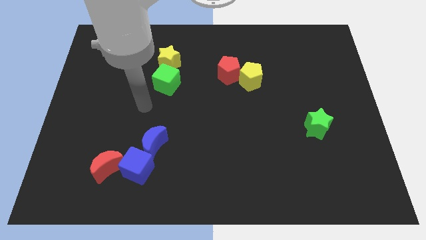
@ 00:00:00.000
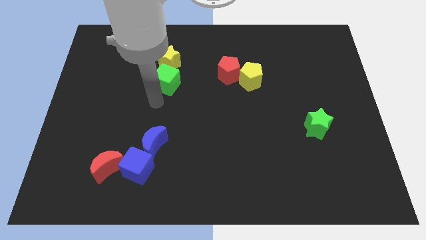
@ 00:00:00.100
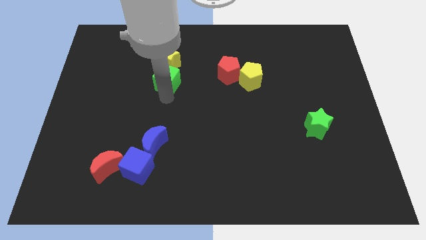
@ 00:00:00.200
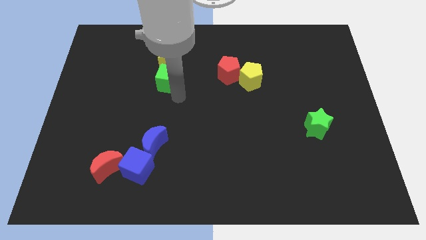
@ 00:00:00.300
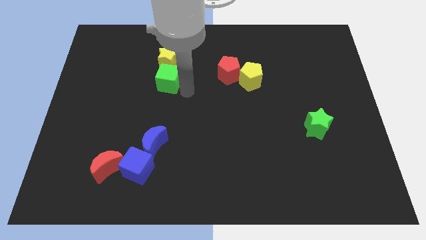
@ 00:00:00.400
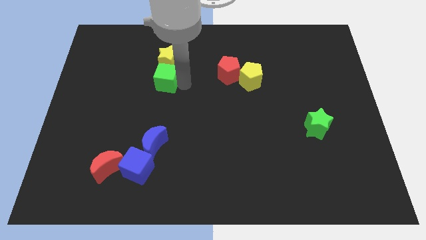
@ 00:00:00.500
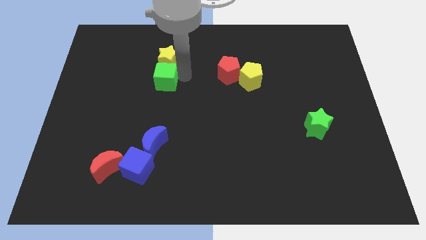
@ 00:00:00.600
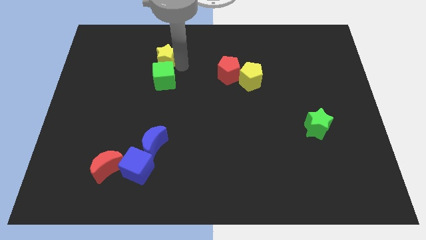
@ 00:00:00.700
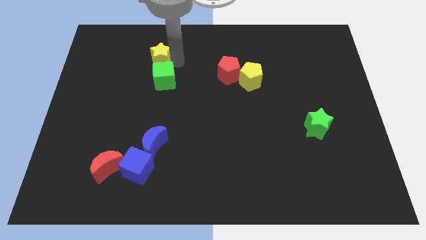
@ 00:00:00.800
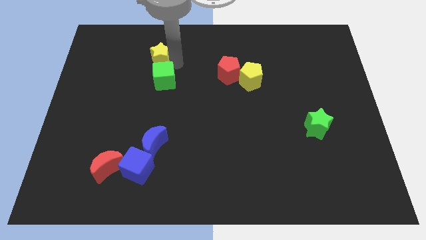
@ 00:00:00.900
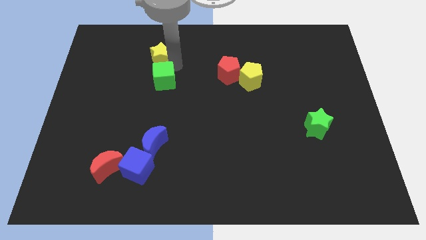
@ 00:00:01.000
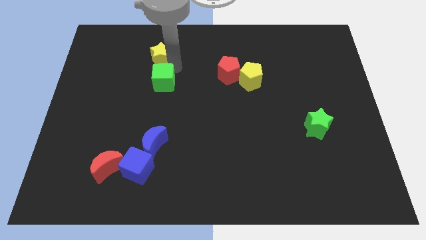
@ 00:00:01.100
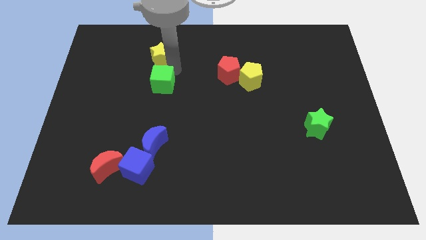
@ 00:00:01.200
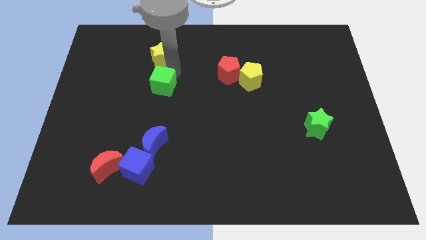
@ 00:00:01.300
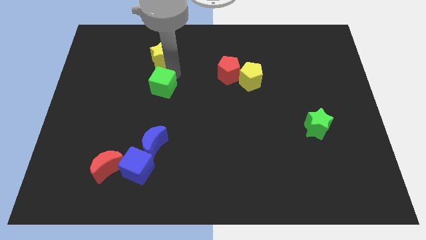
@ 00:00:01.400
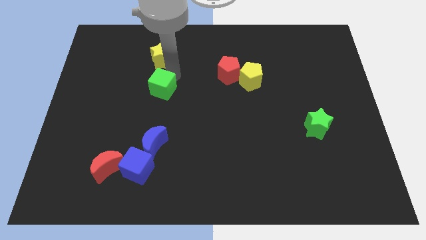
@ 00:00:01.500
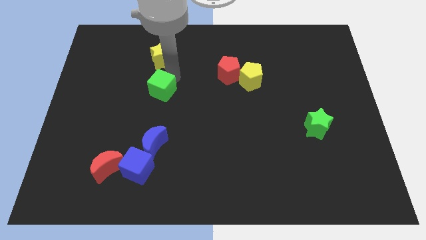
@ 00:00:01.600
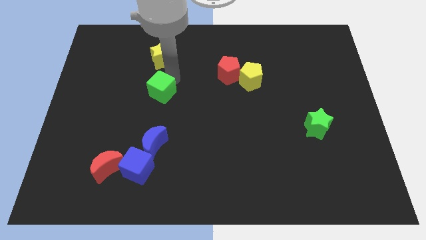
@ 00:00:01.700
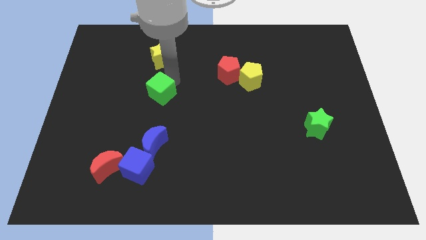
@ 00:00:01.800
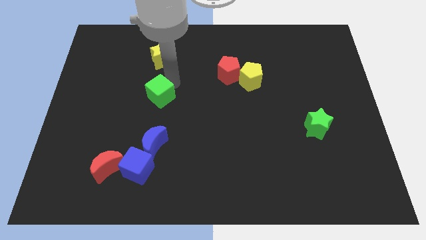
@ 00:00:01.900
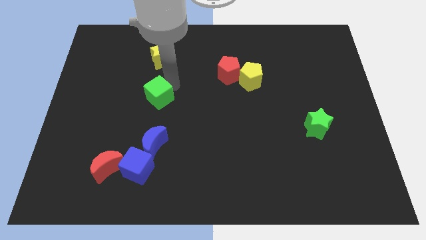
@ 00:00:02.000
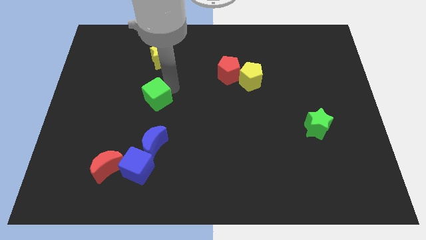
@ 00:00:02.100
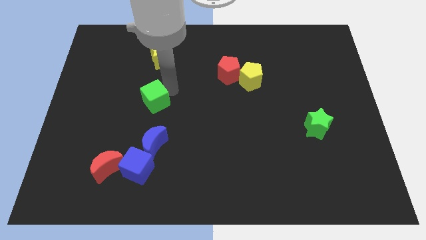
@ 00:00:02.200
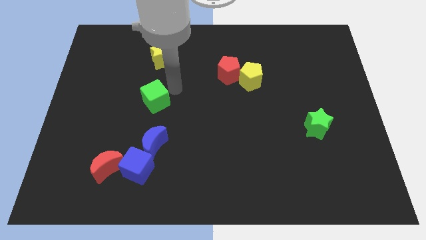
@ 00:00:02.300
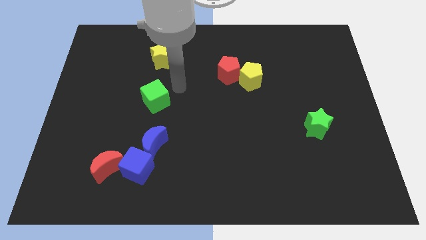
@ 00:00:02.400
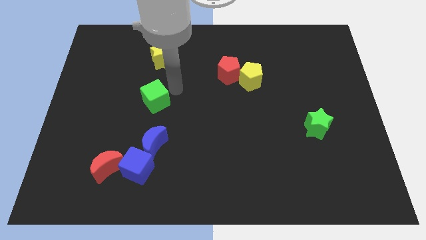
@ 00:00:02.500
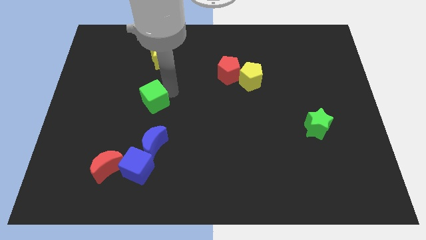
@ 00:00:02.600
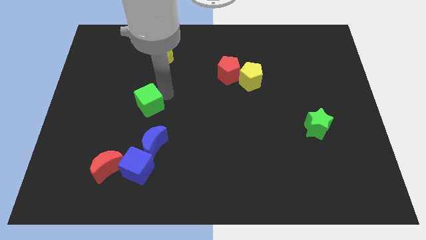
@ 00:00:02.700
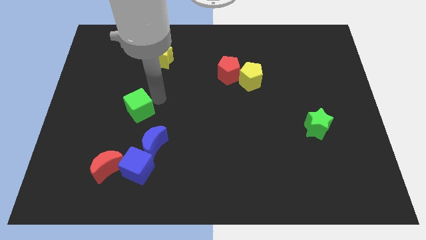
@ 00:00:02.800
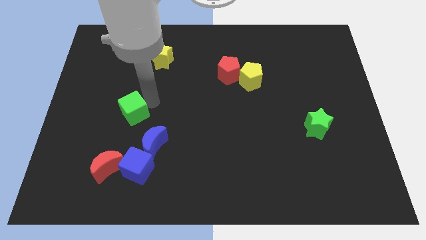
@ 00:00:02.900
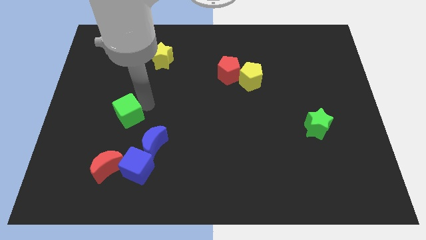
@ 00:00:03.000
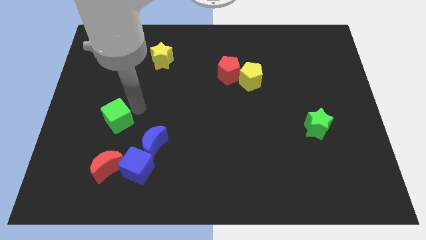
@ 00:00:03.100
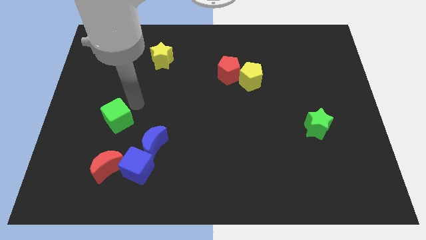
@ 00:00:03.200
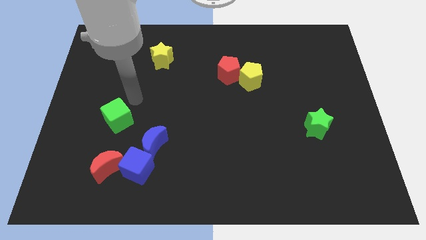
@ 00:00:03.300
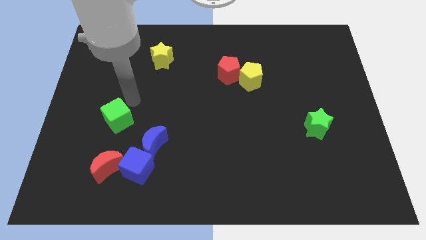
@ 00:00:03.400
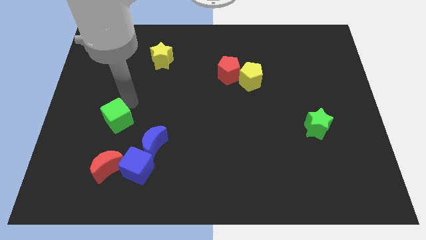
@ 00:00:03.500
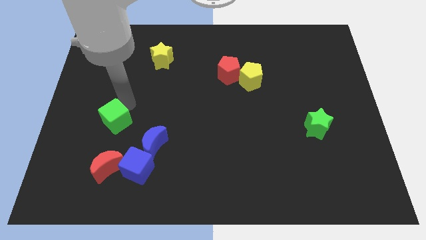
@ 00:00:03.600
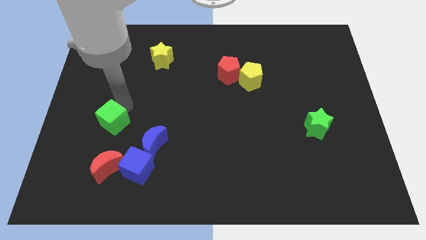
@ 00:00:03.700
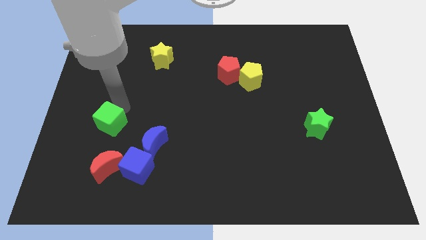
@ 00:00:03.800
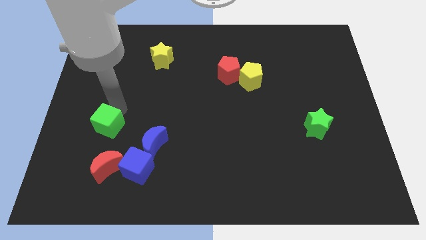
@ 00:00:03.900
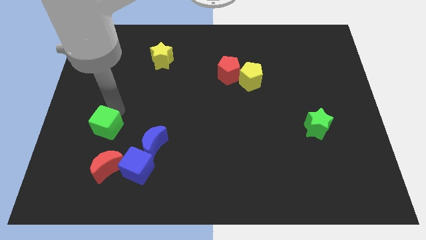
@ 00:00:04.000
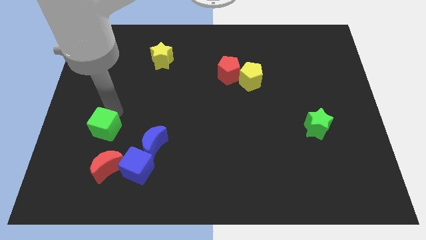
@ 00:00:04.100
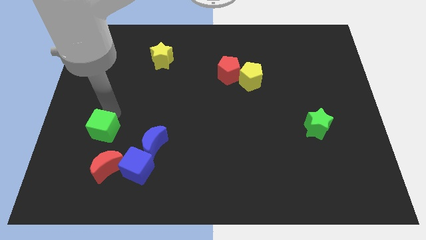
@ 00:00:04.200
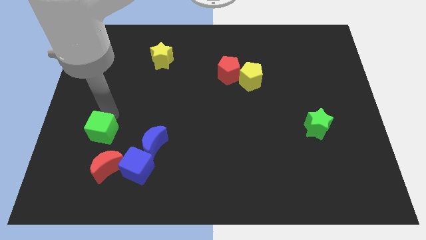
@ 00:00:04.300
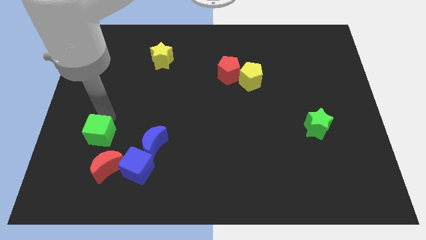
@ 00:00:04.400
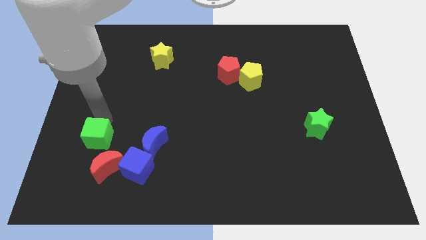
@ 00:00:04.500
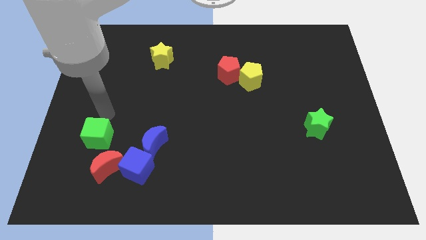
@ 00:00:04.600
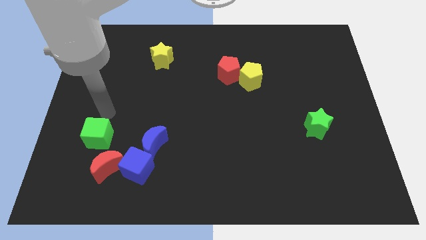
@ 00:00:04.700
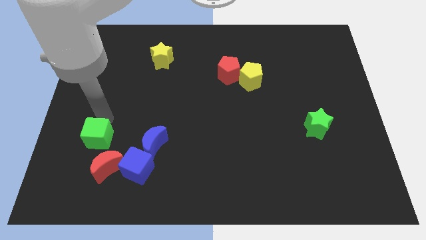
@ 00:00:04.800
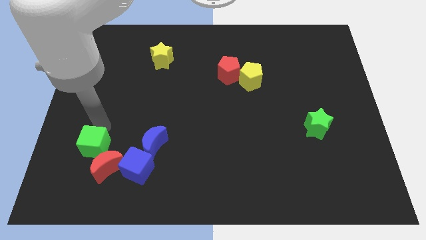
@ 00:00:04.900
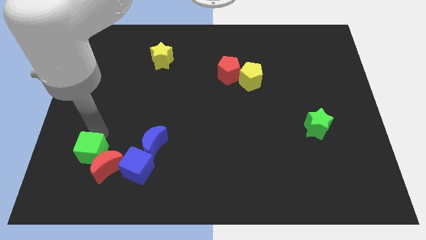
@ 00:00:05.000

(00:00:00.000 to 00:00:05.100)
put the green cube just left of the blue cube

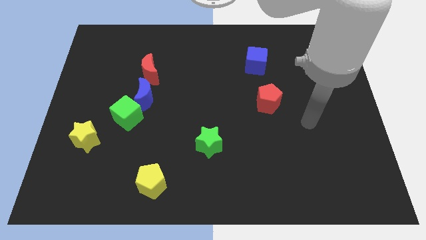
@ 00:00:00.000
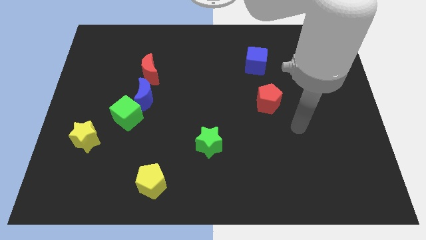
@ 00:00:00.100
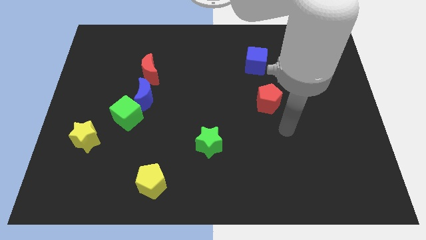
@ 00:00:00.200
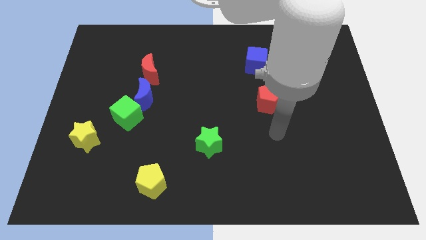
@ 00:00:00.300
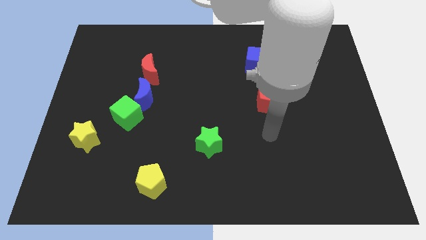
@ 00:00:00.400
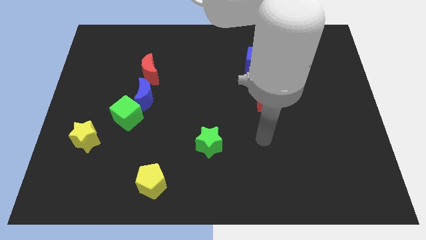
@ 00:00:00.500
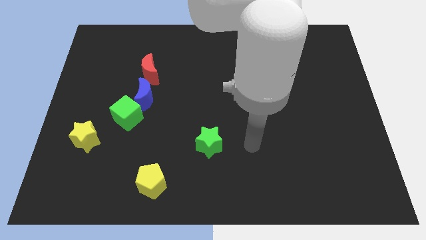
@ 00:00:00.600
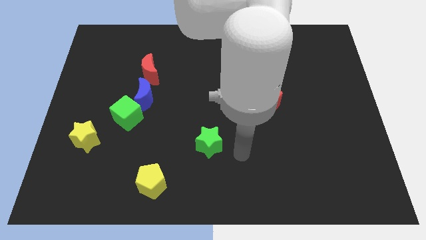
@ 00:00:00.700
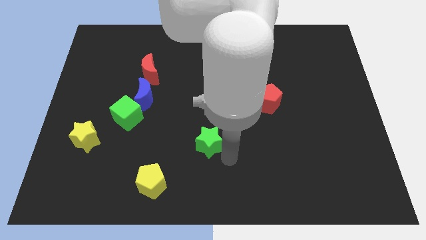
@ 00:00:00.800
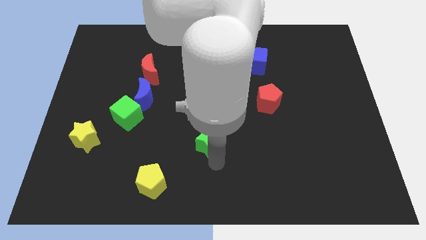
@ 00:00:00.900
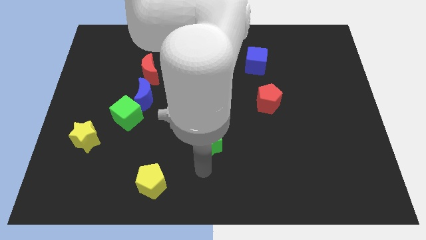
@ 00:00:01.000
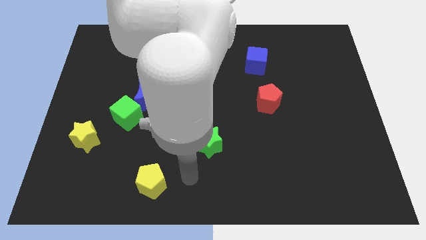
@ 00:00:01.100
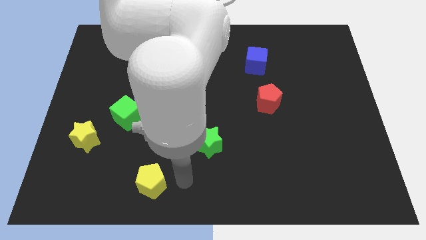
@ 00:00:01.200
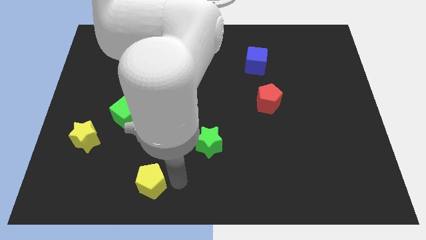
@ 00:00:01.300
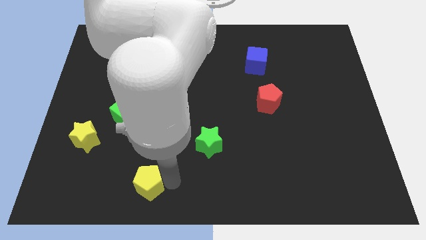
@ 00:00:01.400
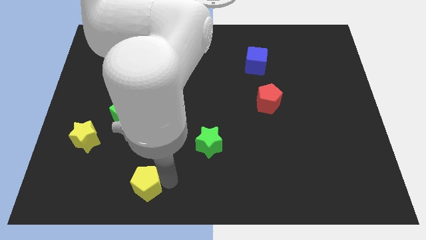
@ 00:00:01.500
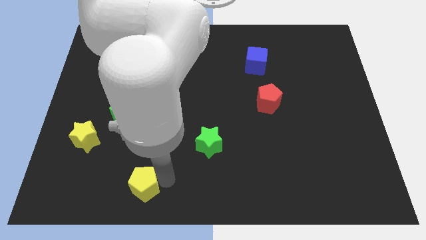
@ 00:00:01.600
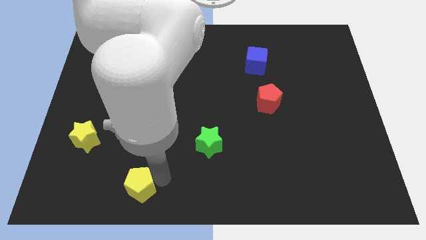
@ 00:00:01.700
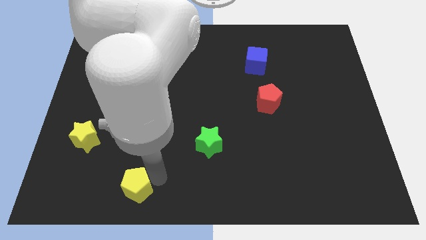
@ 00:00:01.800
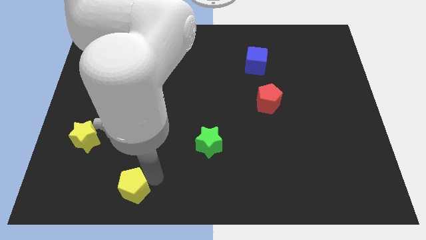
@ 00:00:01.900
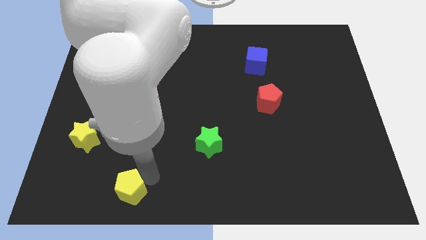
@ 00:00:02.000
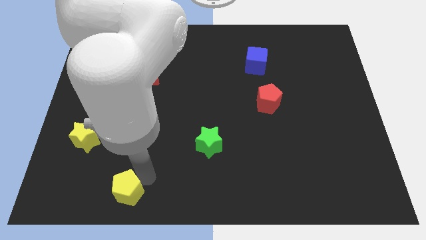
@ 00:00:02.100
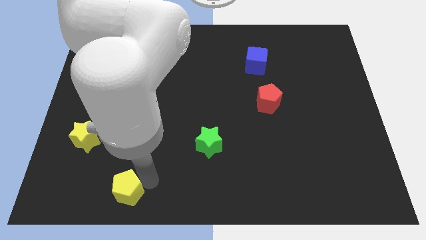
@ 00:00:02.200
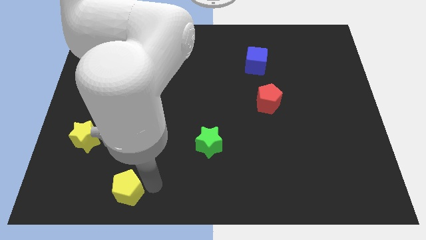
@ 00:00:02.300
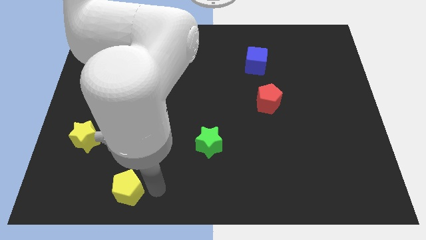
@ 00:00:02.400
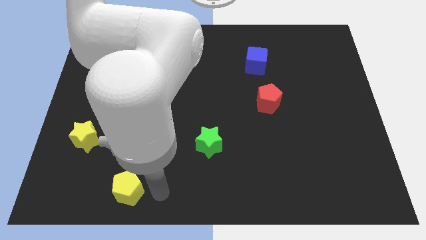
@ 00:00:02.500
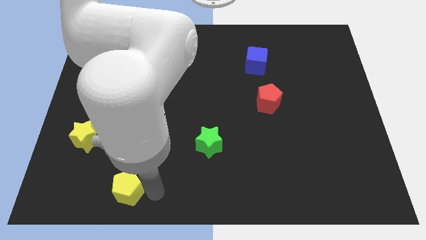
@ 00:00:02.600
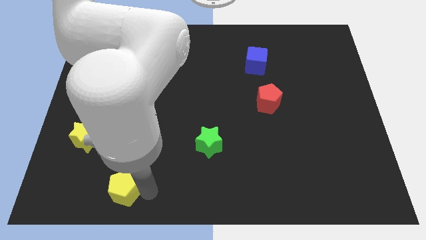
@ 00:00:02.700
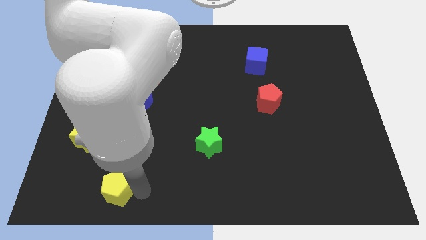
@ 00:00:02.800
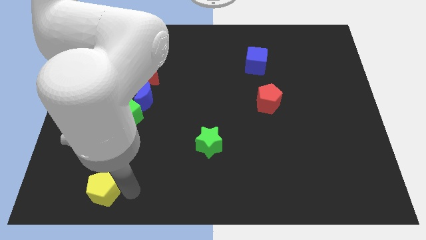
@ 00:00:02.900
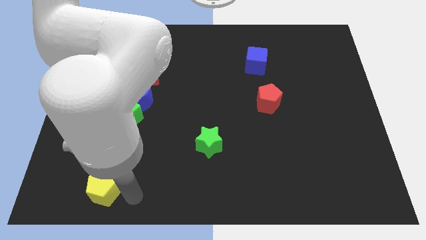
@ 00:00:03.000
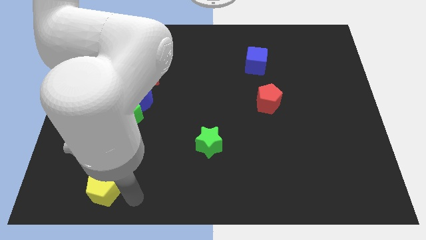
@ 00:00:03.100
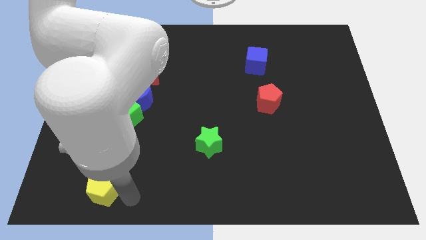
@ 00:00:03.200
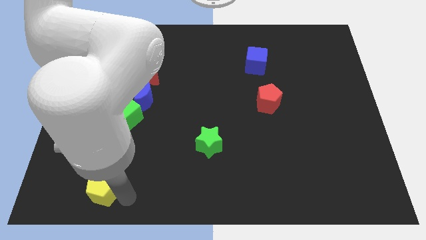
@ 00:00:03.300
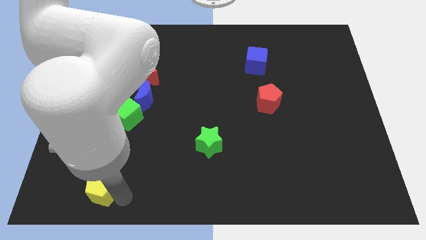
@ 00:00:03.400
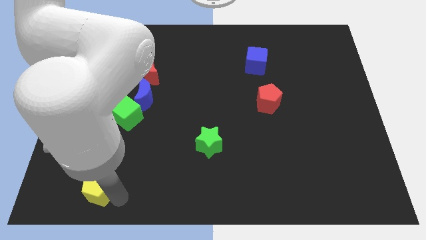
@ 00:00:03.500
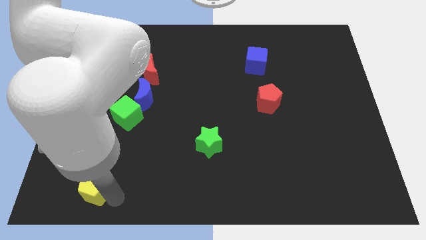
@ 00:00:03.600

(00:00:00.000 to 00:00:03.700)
move the yellow pentagon to the bottom side of the yellow star
